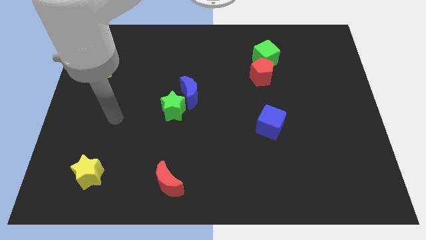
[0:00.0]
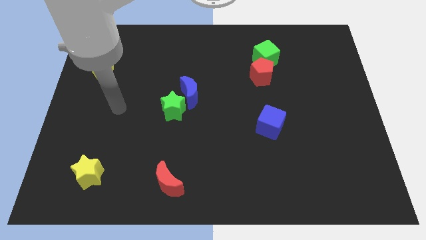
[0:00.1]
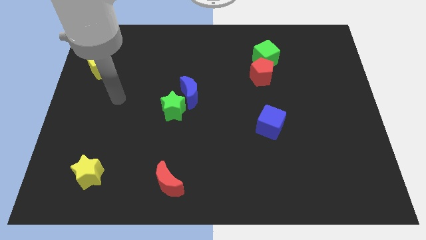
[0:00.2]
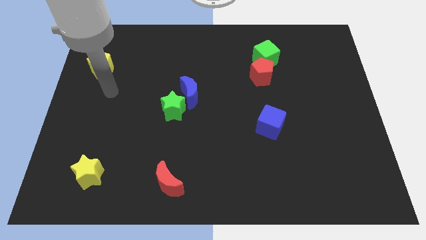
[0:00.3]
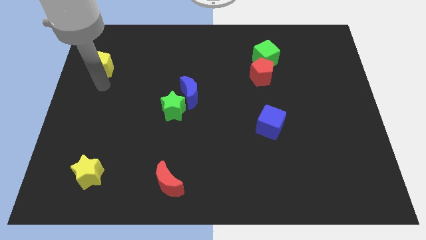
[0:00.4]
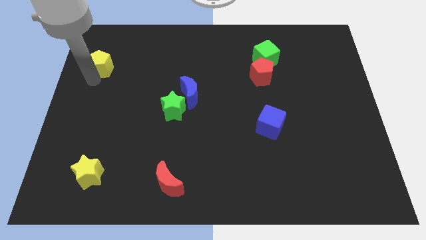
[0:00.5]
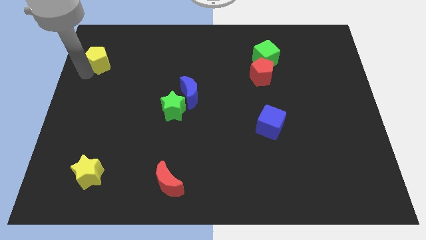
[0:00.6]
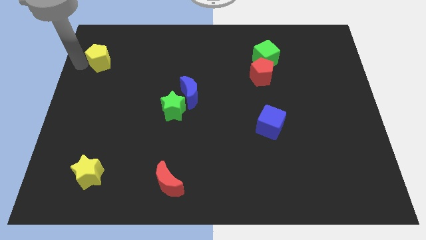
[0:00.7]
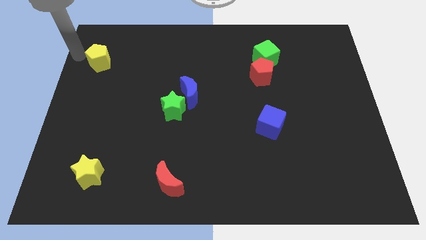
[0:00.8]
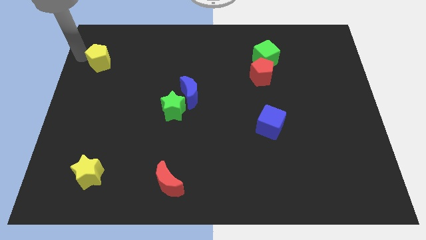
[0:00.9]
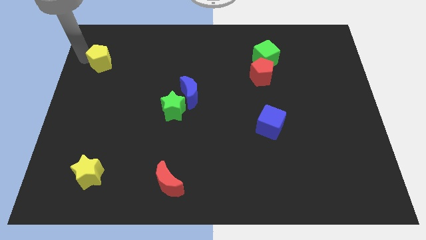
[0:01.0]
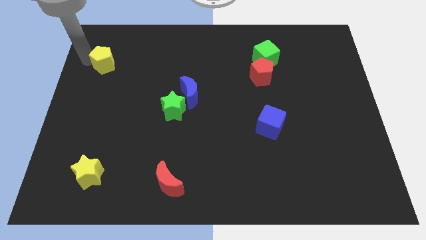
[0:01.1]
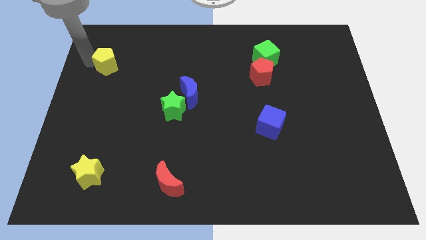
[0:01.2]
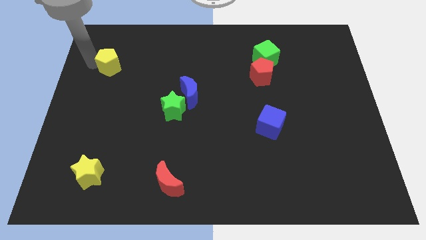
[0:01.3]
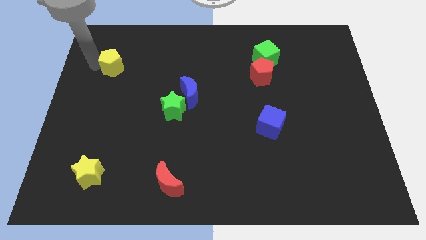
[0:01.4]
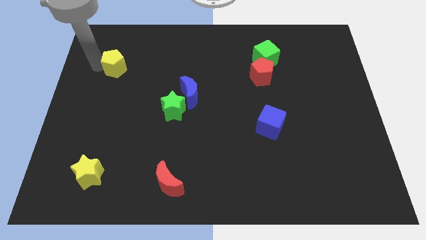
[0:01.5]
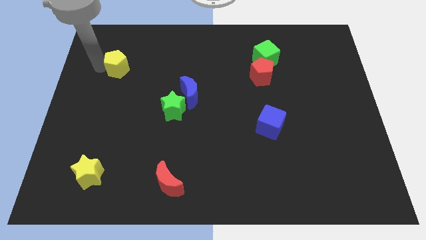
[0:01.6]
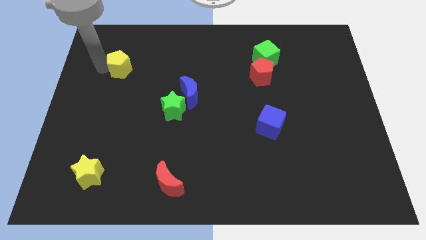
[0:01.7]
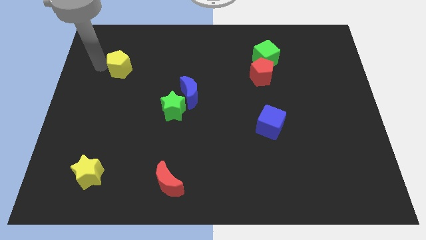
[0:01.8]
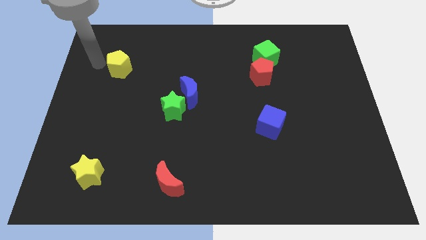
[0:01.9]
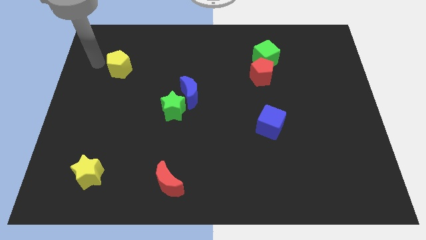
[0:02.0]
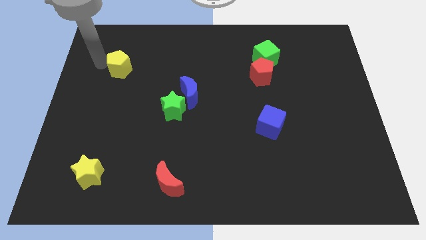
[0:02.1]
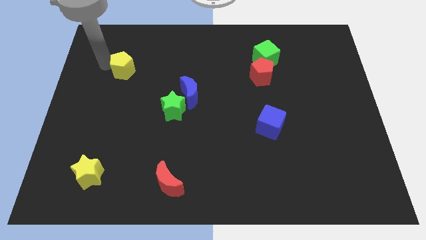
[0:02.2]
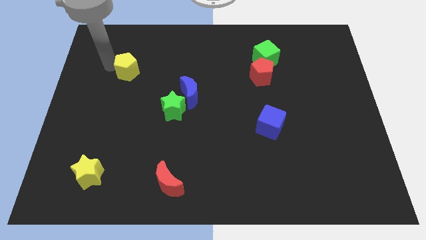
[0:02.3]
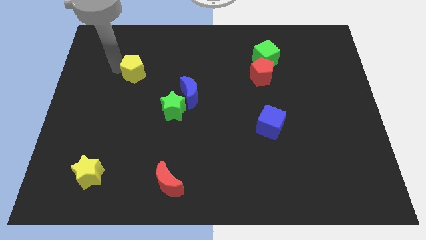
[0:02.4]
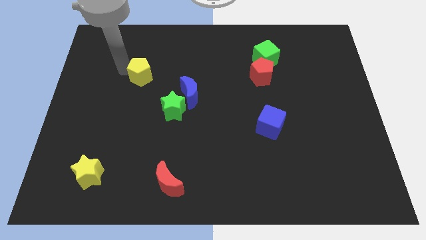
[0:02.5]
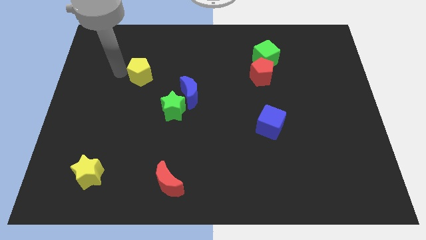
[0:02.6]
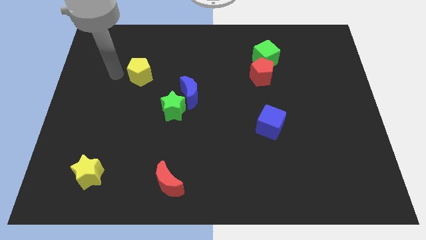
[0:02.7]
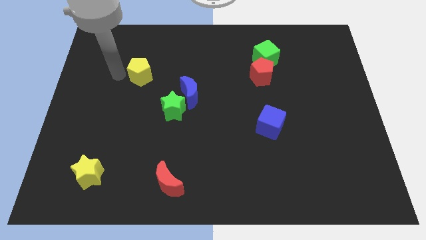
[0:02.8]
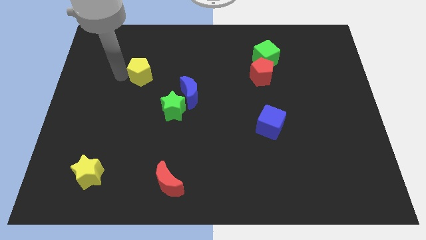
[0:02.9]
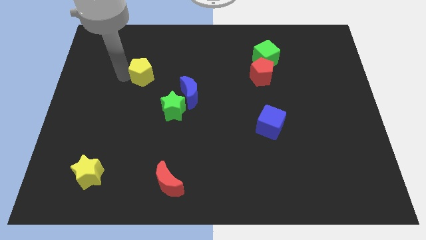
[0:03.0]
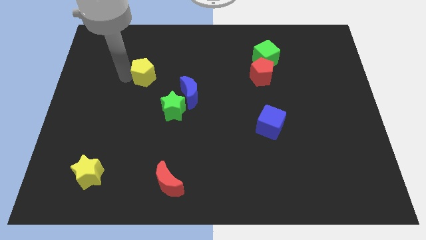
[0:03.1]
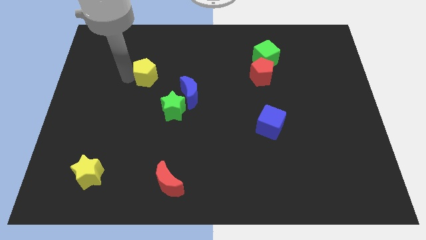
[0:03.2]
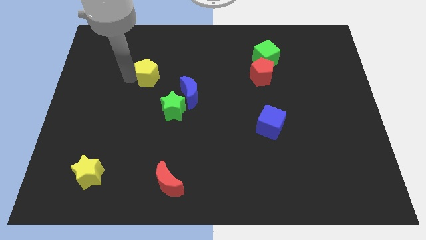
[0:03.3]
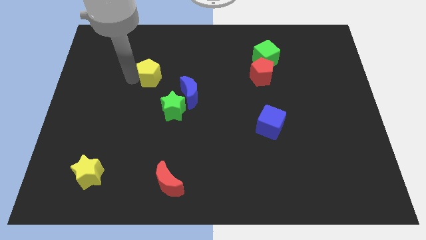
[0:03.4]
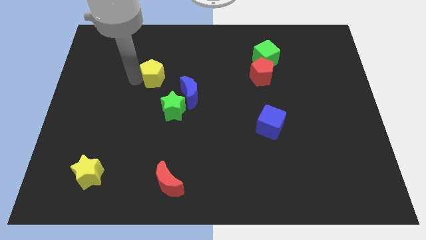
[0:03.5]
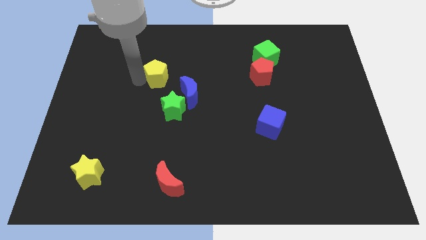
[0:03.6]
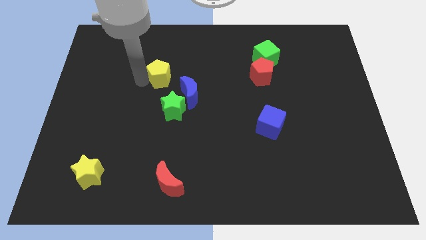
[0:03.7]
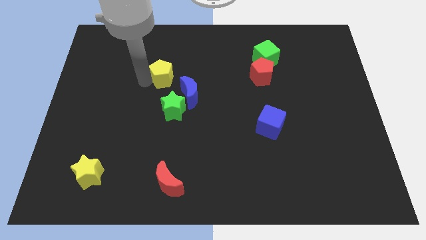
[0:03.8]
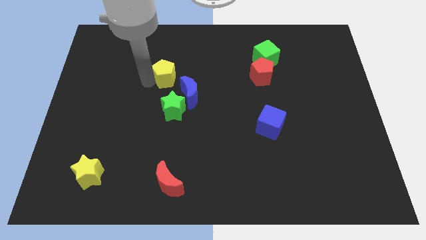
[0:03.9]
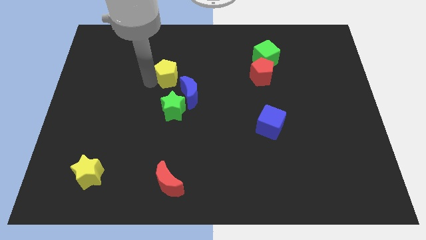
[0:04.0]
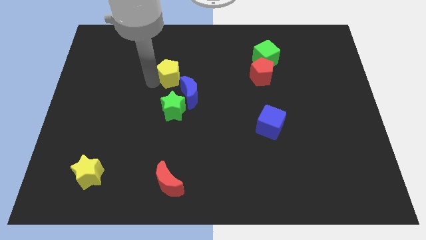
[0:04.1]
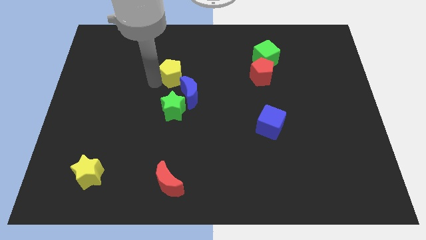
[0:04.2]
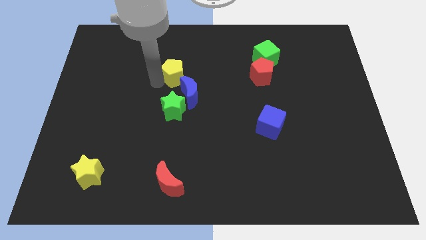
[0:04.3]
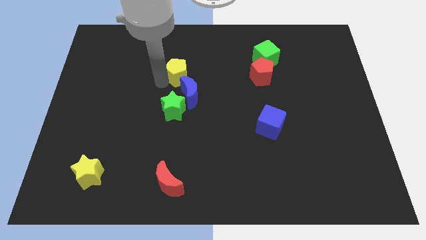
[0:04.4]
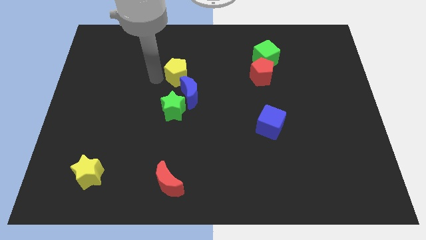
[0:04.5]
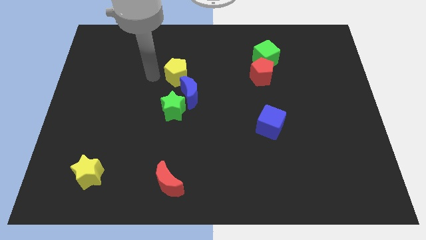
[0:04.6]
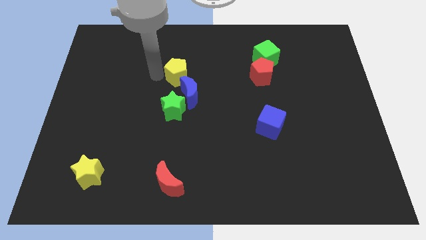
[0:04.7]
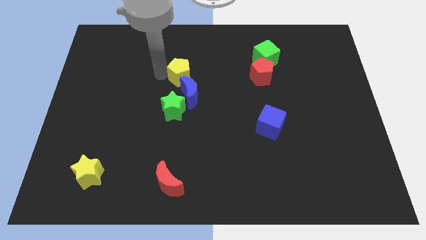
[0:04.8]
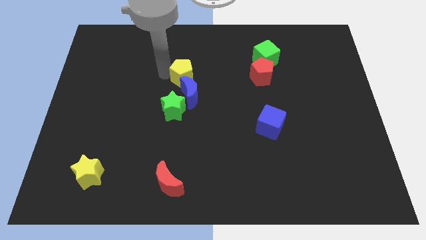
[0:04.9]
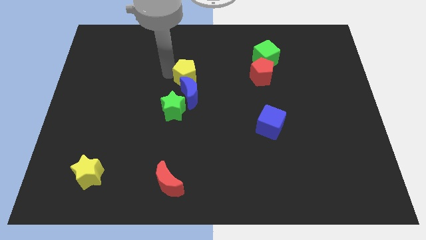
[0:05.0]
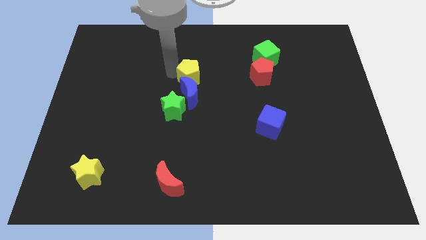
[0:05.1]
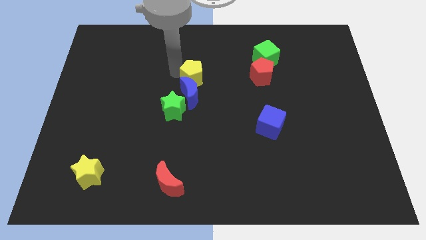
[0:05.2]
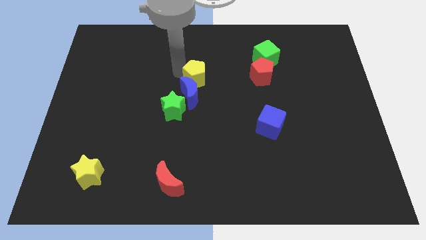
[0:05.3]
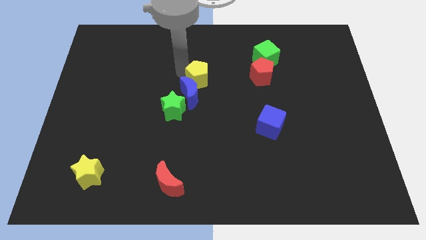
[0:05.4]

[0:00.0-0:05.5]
slide the yellow pentagon left of the red pentagon

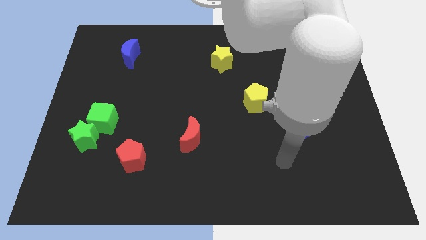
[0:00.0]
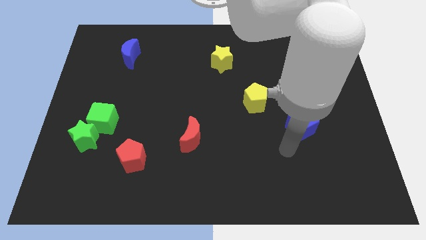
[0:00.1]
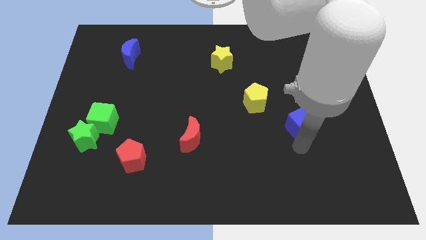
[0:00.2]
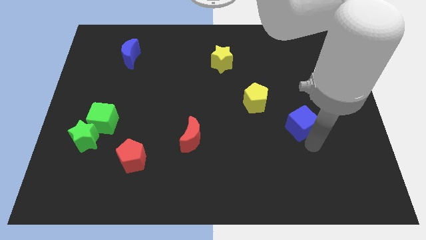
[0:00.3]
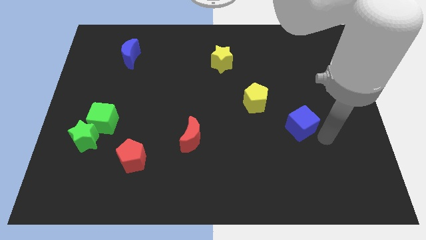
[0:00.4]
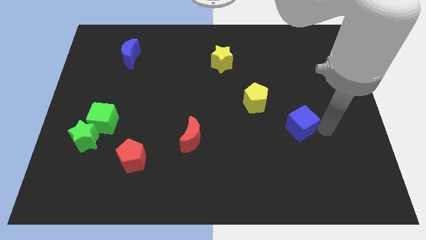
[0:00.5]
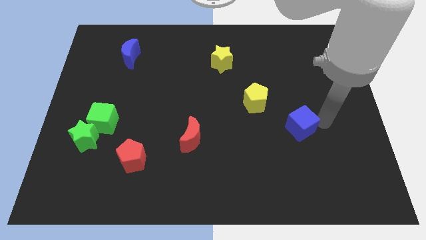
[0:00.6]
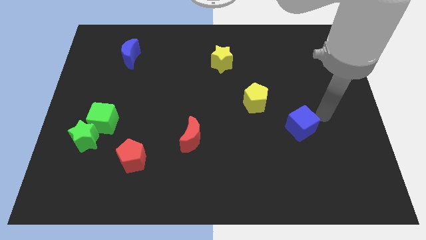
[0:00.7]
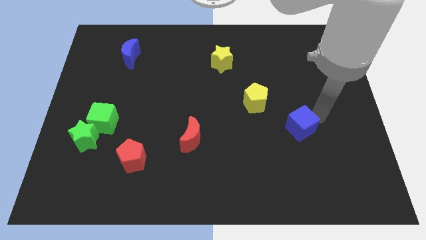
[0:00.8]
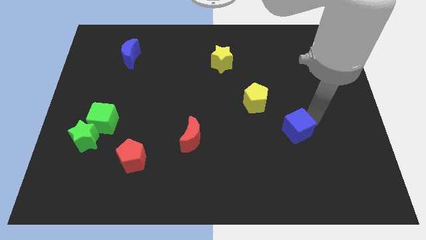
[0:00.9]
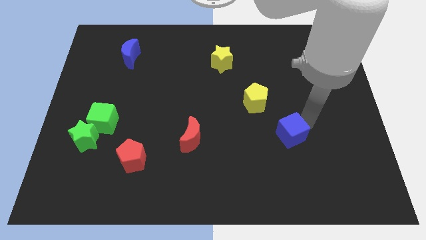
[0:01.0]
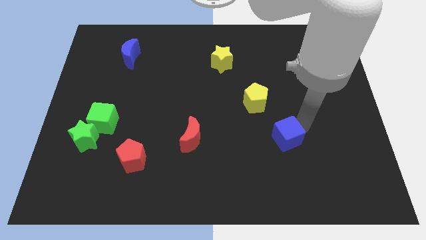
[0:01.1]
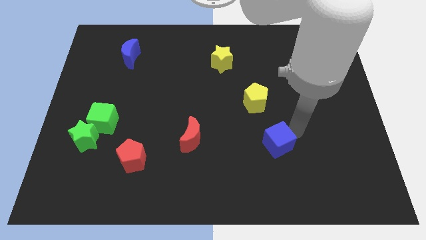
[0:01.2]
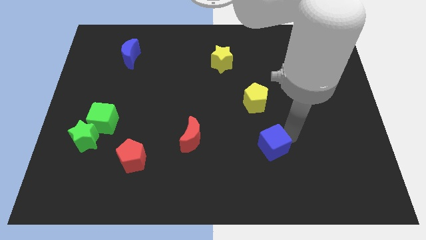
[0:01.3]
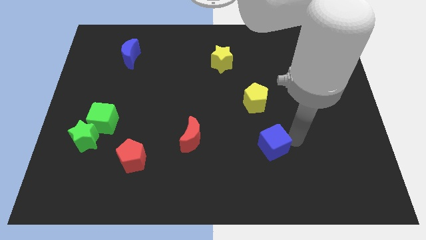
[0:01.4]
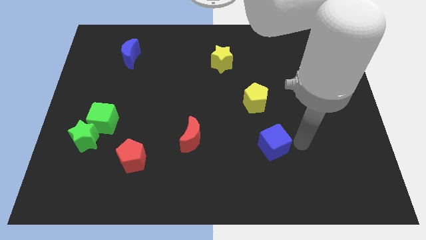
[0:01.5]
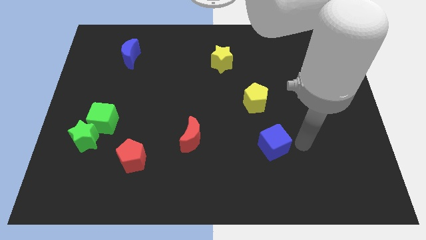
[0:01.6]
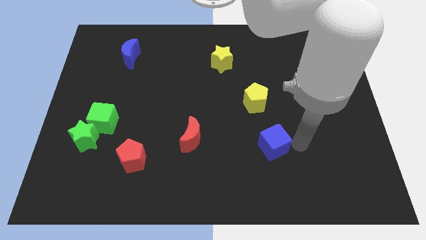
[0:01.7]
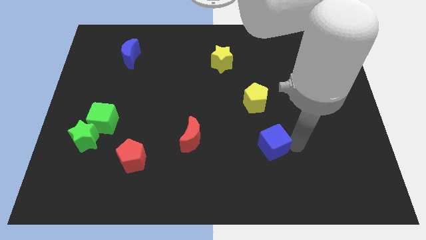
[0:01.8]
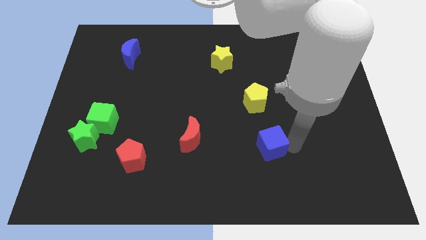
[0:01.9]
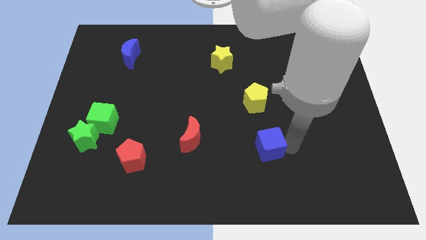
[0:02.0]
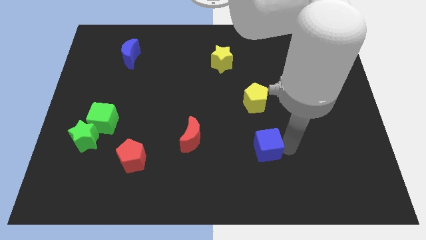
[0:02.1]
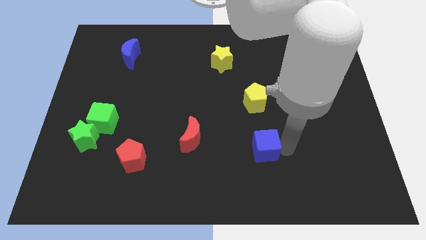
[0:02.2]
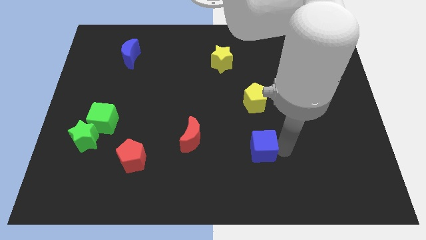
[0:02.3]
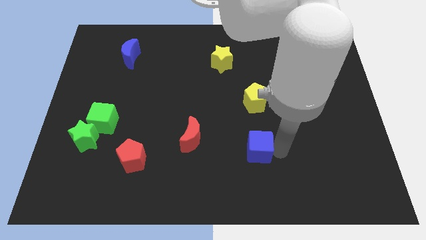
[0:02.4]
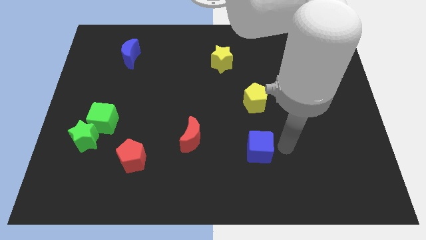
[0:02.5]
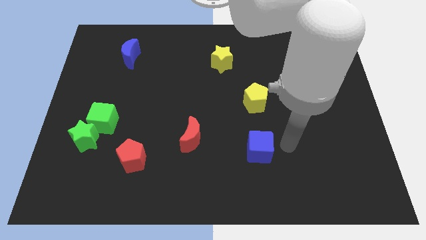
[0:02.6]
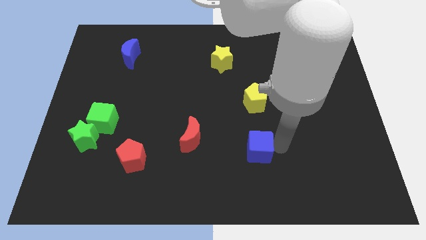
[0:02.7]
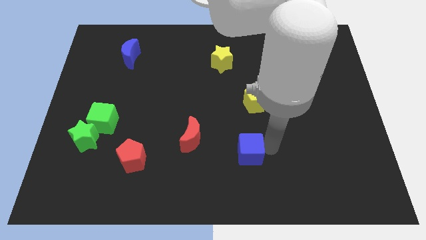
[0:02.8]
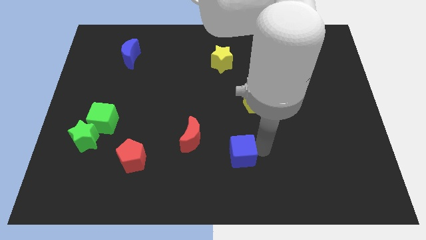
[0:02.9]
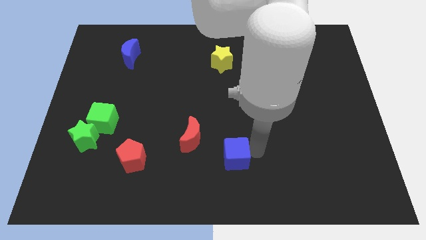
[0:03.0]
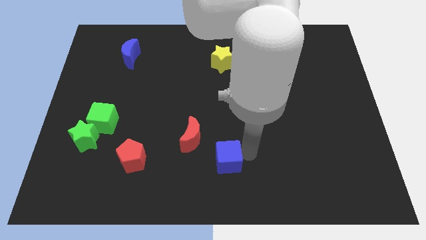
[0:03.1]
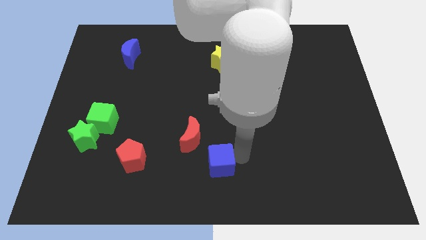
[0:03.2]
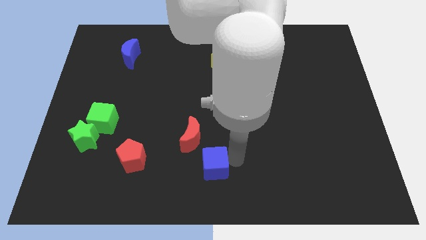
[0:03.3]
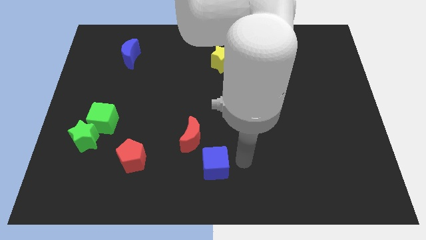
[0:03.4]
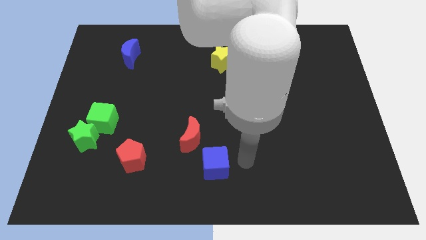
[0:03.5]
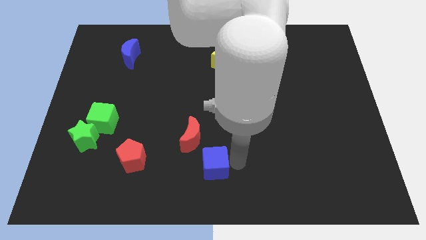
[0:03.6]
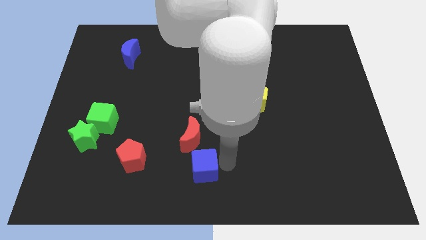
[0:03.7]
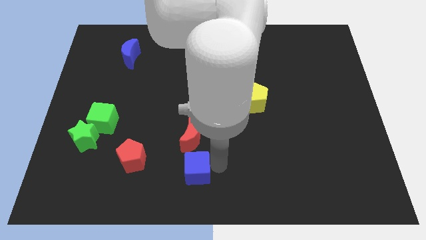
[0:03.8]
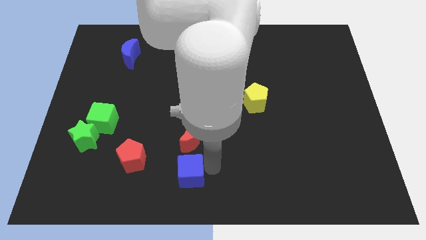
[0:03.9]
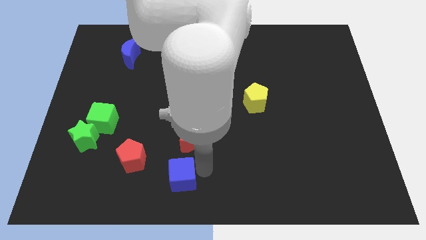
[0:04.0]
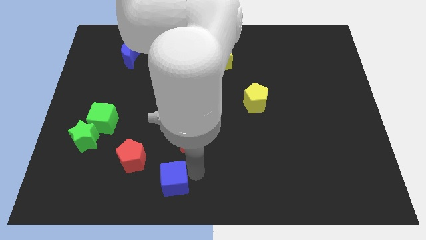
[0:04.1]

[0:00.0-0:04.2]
move the blue cube to the bottom right side of the red pentagon
